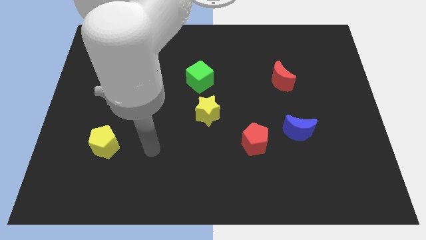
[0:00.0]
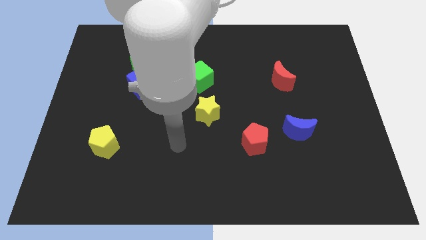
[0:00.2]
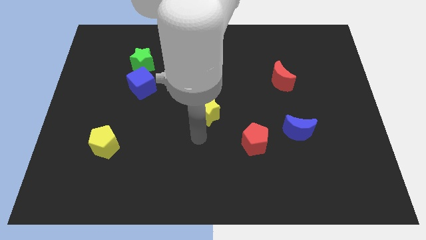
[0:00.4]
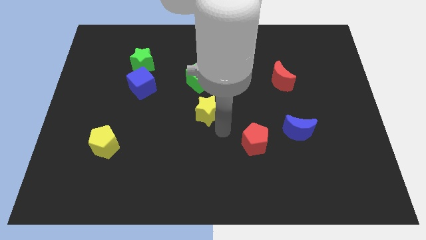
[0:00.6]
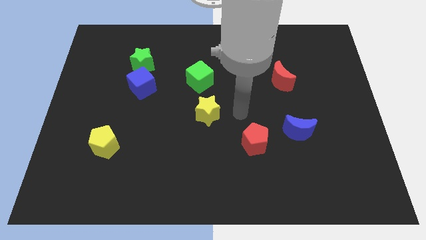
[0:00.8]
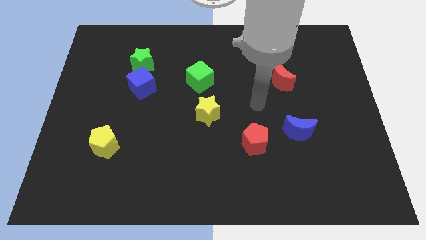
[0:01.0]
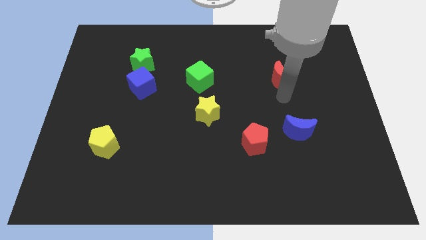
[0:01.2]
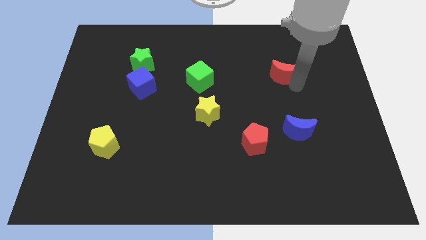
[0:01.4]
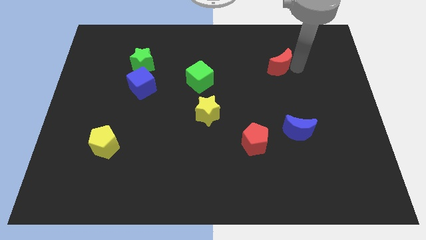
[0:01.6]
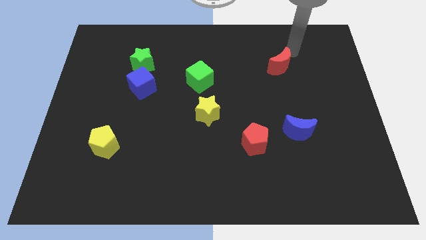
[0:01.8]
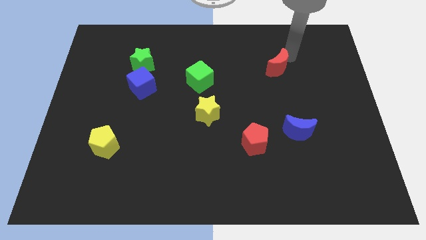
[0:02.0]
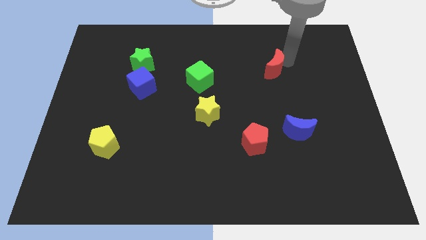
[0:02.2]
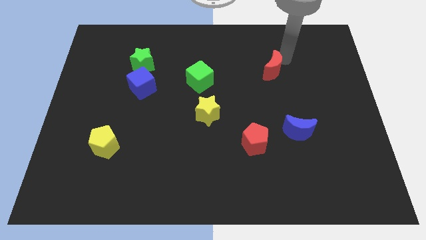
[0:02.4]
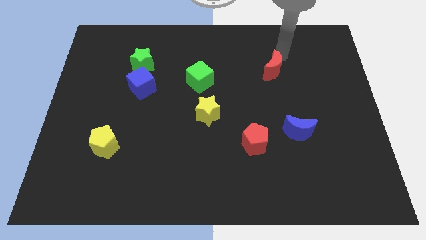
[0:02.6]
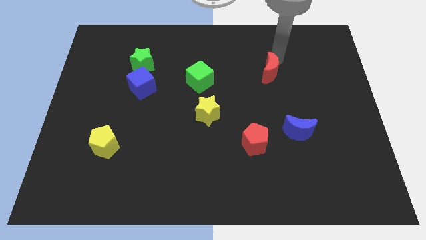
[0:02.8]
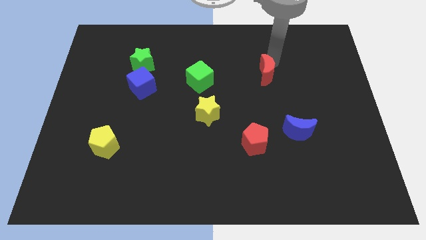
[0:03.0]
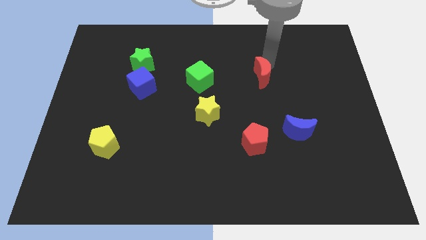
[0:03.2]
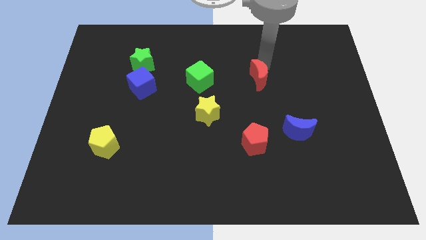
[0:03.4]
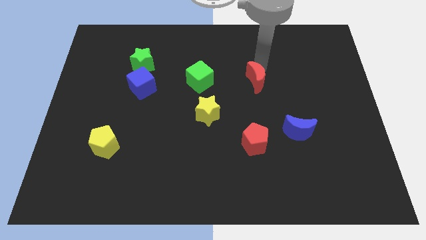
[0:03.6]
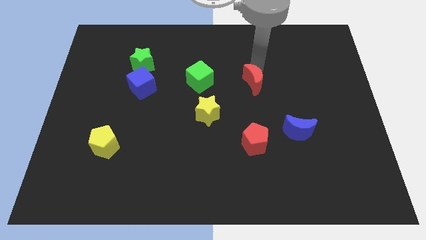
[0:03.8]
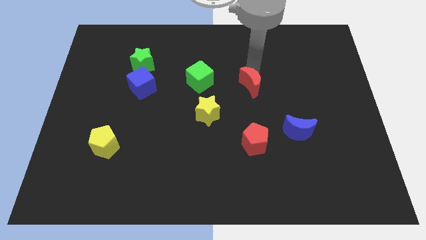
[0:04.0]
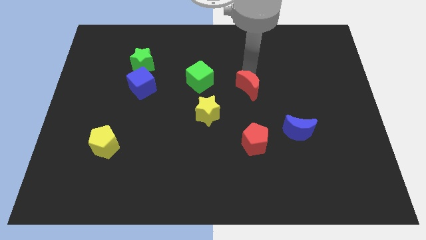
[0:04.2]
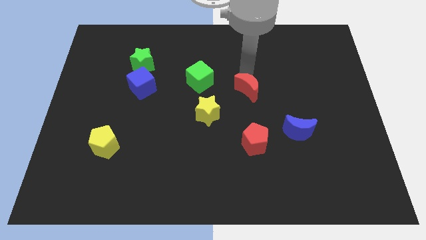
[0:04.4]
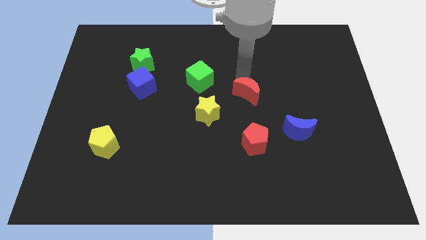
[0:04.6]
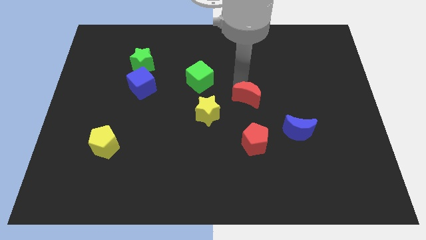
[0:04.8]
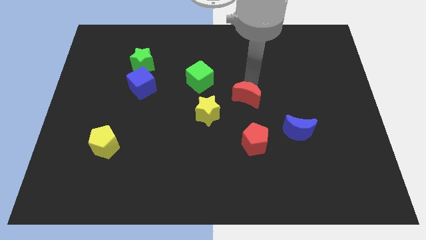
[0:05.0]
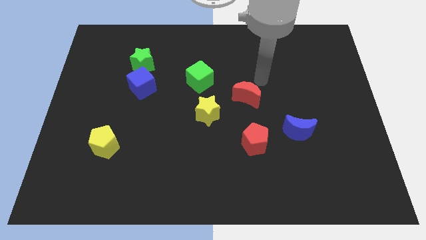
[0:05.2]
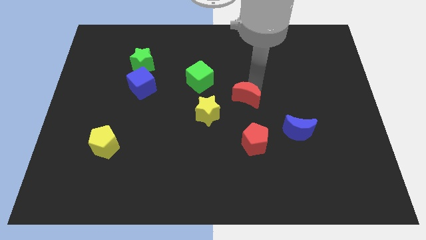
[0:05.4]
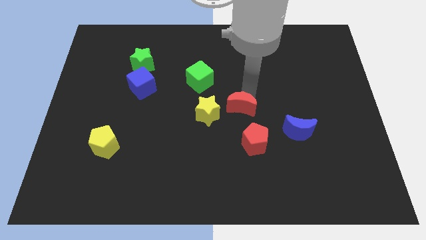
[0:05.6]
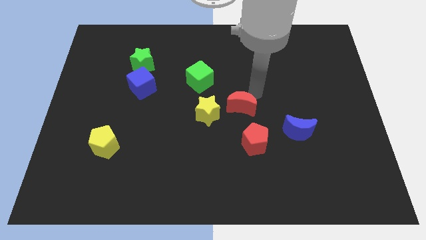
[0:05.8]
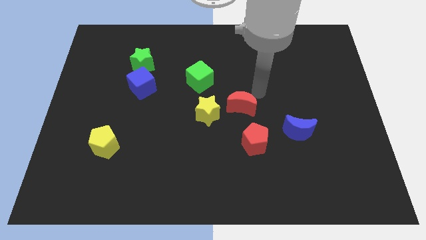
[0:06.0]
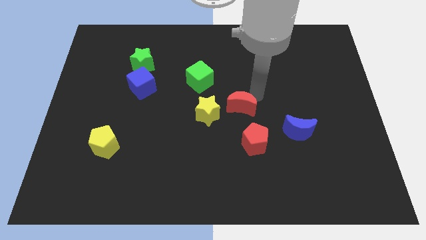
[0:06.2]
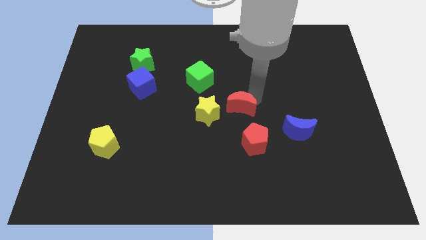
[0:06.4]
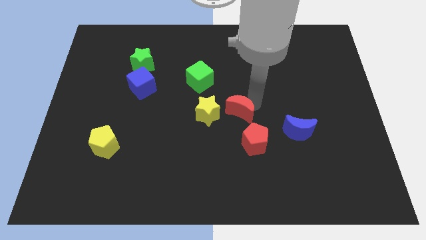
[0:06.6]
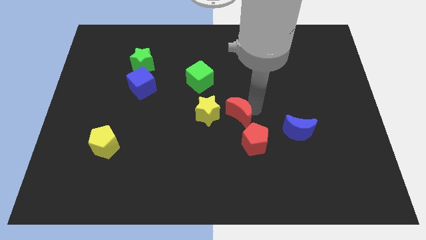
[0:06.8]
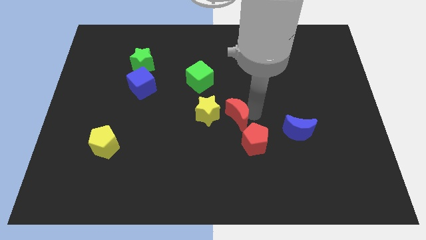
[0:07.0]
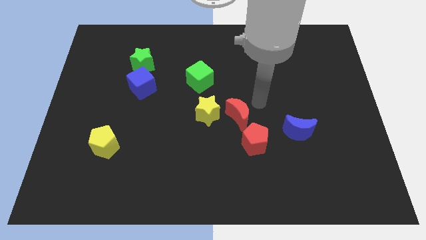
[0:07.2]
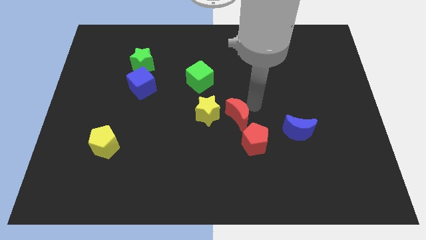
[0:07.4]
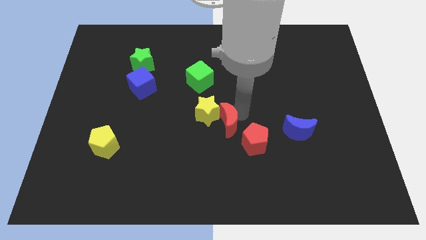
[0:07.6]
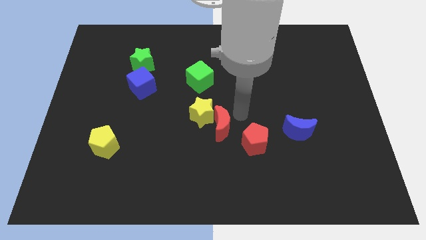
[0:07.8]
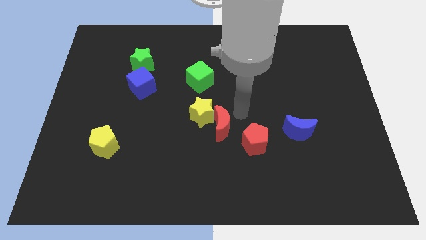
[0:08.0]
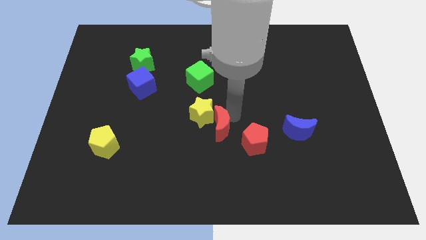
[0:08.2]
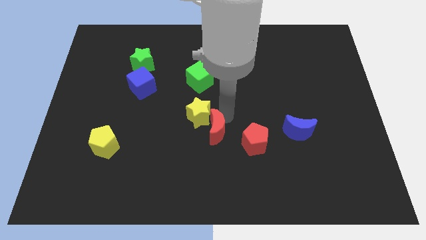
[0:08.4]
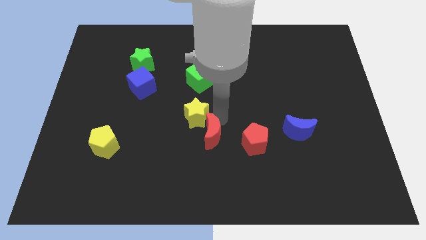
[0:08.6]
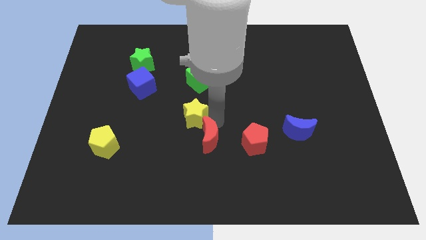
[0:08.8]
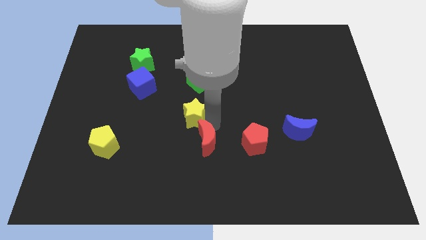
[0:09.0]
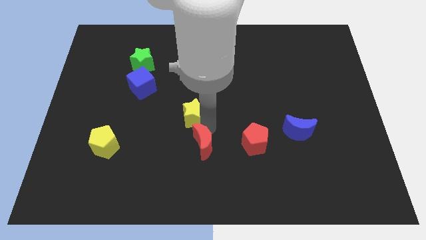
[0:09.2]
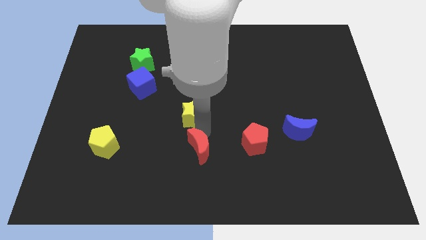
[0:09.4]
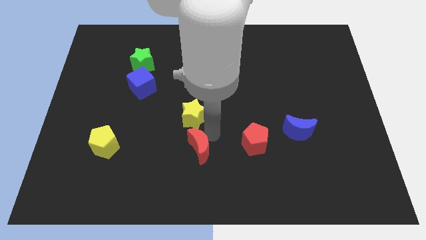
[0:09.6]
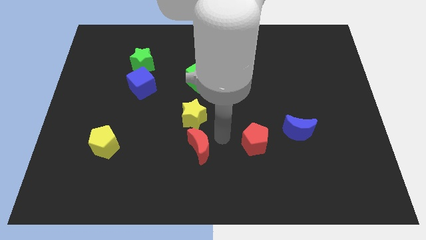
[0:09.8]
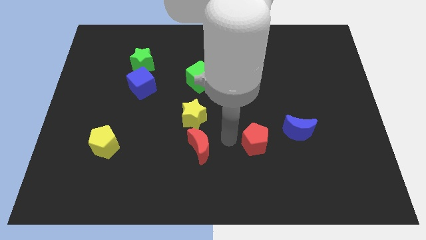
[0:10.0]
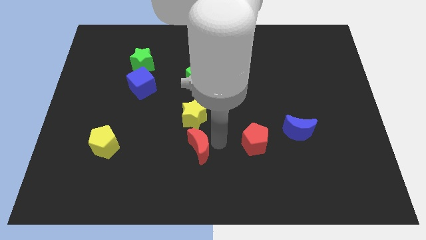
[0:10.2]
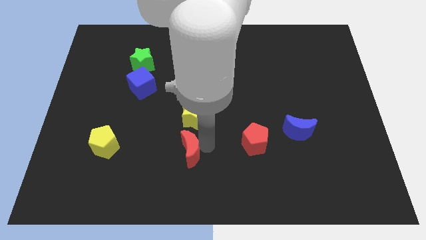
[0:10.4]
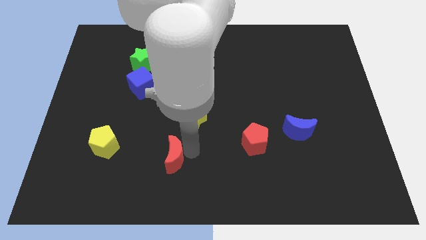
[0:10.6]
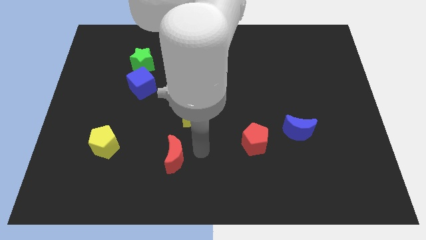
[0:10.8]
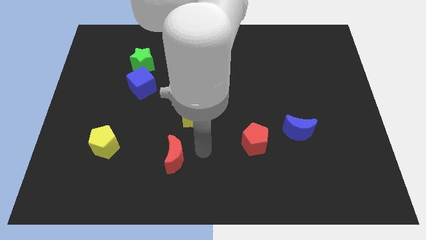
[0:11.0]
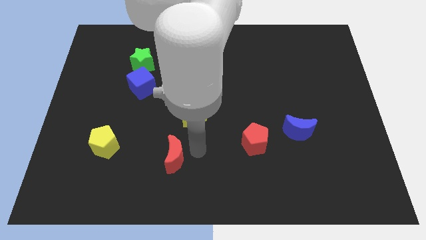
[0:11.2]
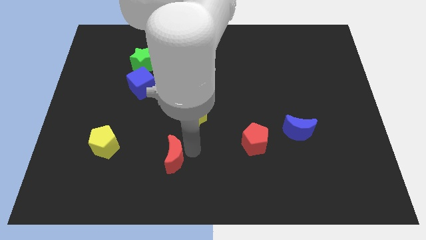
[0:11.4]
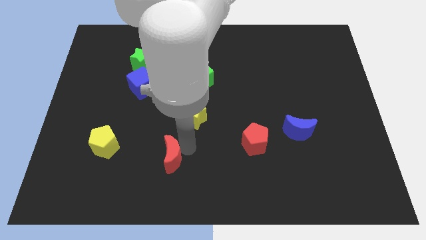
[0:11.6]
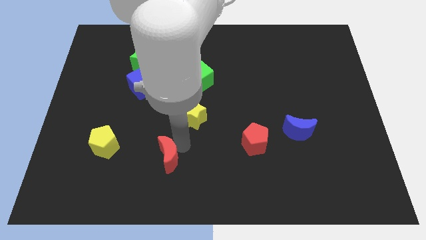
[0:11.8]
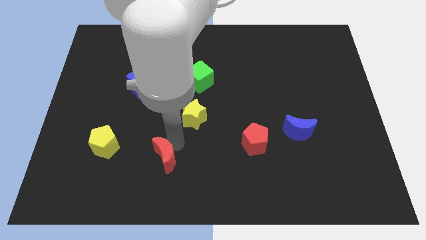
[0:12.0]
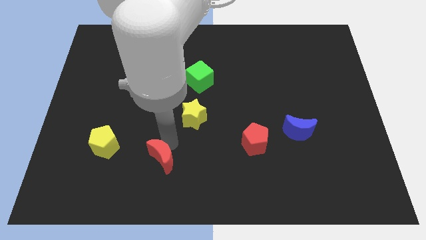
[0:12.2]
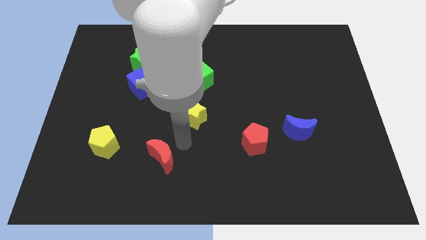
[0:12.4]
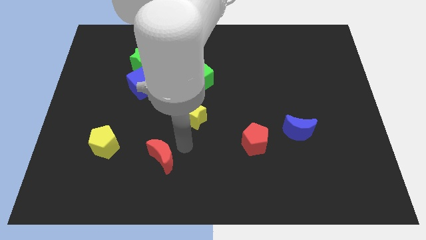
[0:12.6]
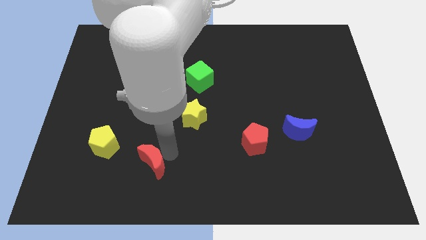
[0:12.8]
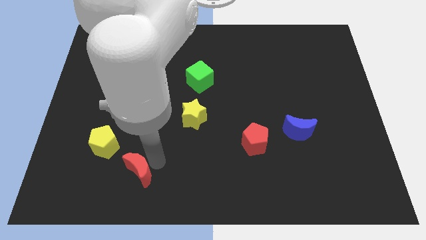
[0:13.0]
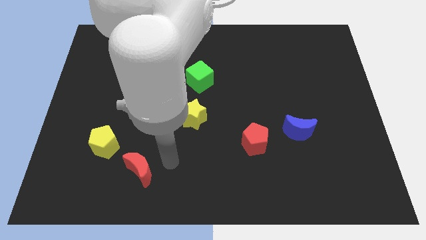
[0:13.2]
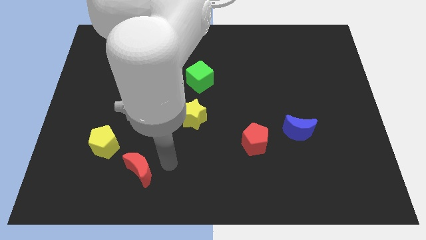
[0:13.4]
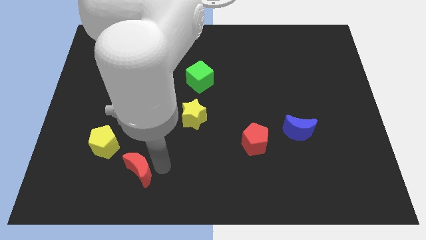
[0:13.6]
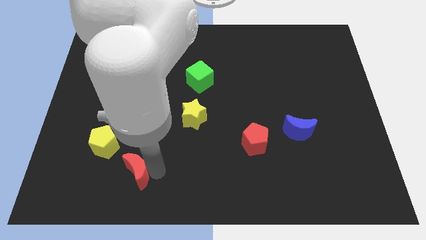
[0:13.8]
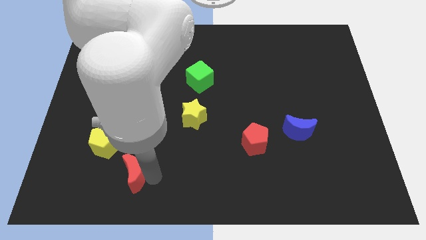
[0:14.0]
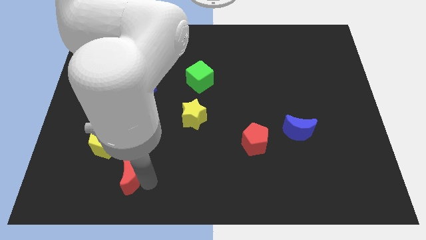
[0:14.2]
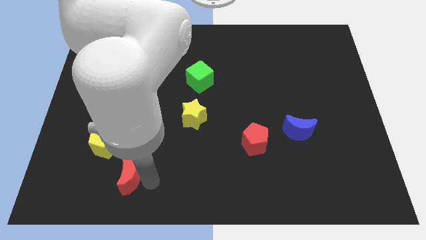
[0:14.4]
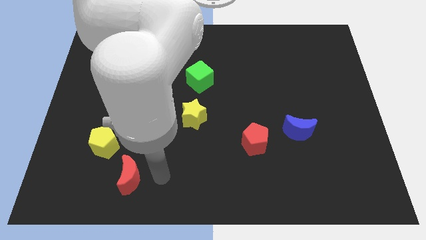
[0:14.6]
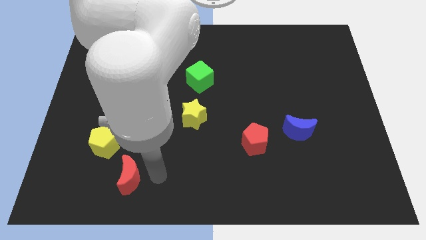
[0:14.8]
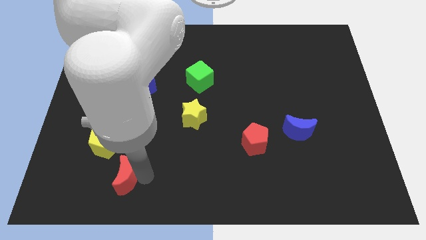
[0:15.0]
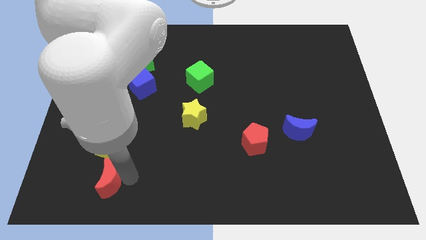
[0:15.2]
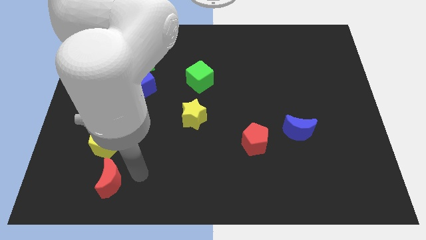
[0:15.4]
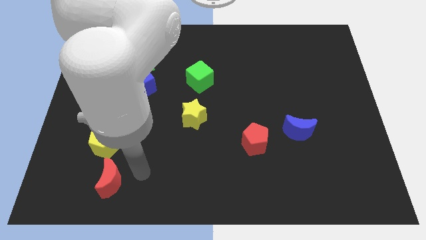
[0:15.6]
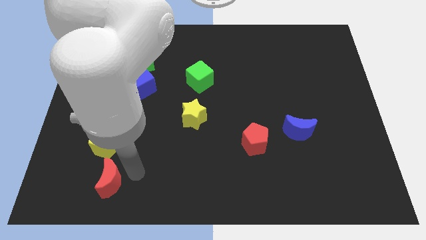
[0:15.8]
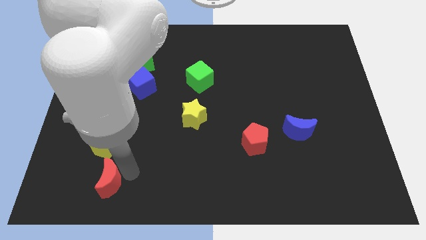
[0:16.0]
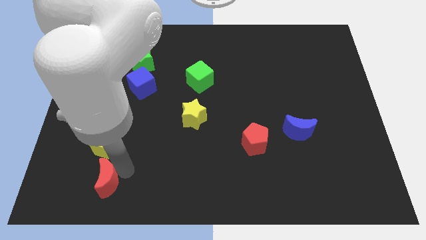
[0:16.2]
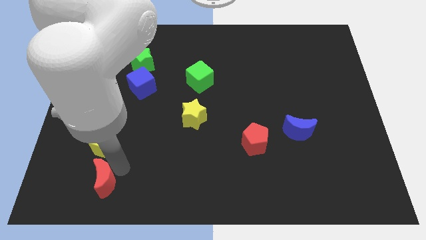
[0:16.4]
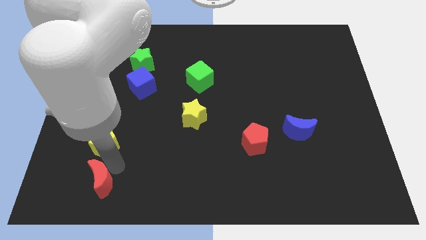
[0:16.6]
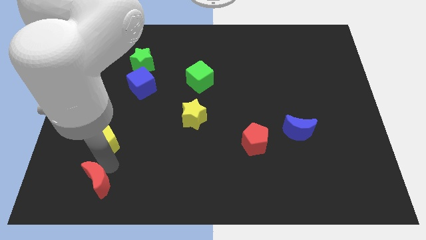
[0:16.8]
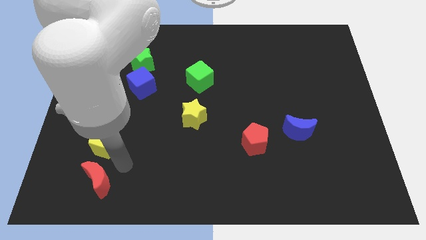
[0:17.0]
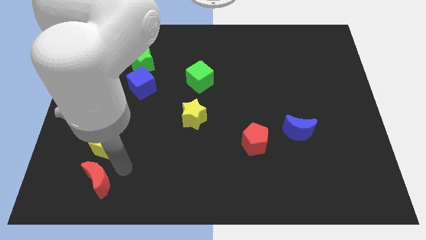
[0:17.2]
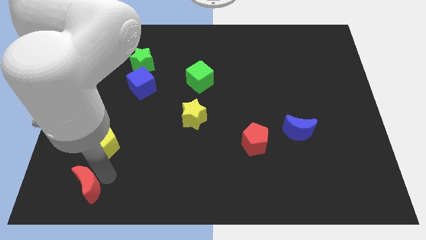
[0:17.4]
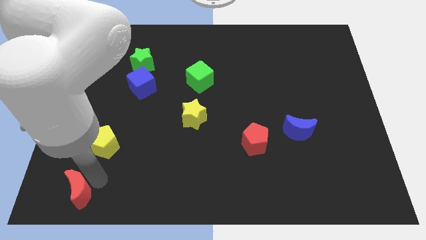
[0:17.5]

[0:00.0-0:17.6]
push the red moon to the bottom left corner
